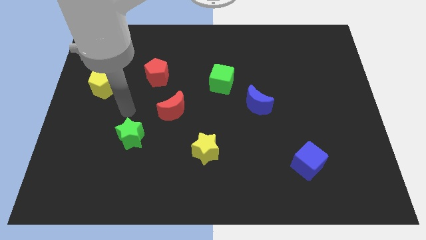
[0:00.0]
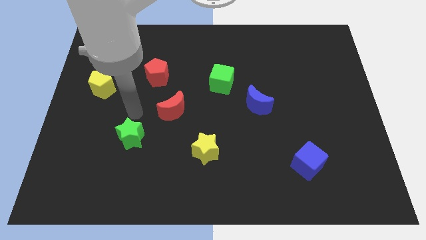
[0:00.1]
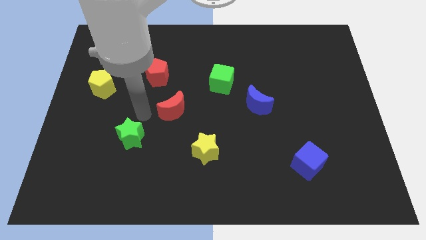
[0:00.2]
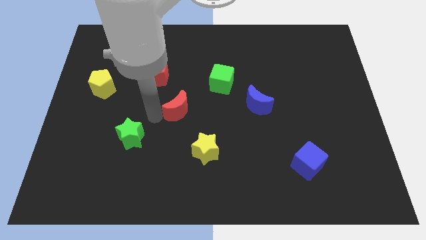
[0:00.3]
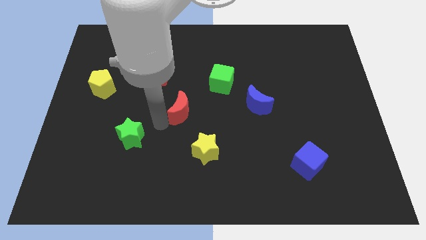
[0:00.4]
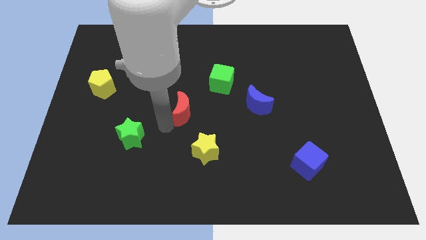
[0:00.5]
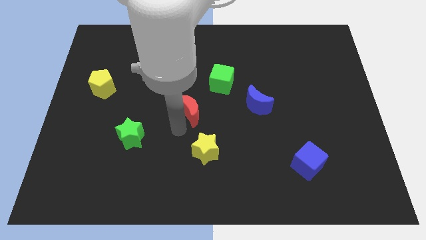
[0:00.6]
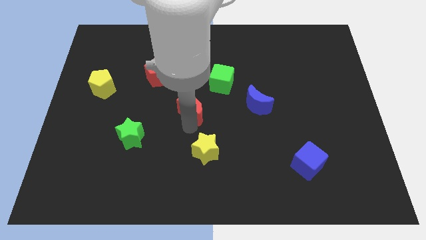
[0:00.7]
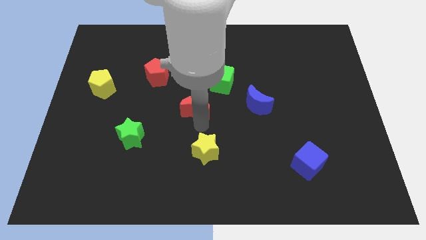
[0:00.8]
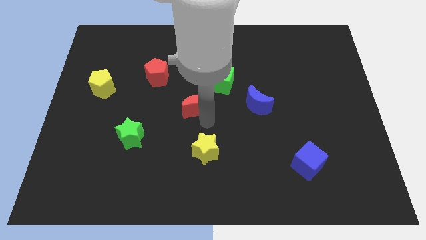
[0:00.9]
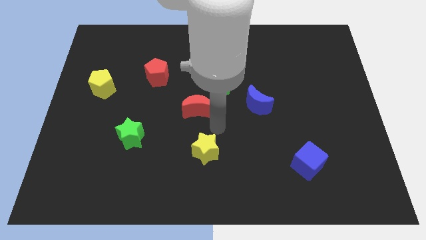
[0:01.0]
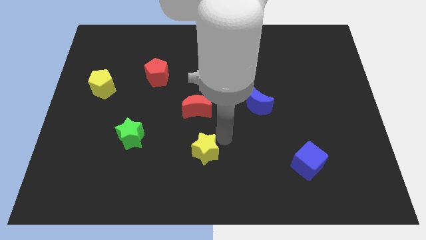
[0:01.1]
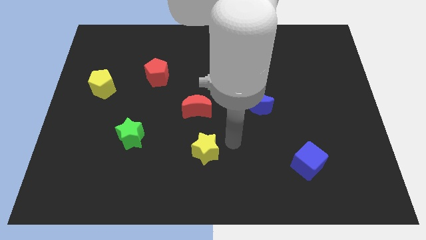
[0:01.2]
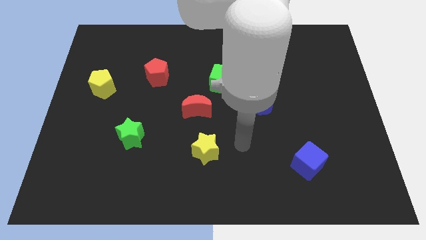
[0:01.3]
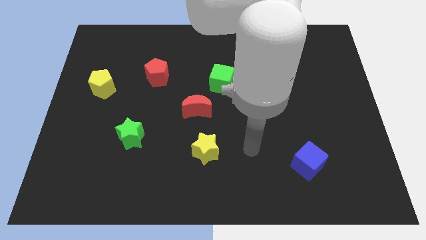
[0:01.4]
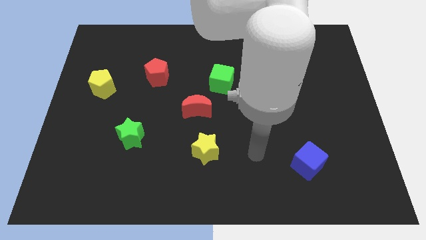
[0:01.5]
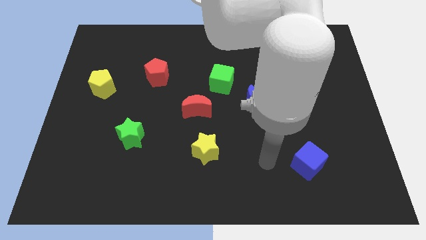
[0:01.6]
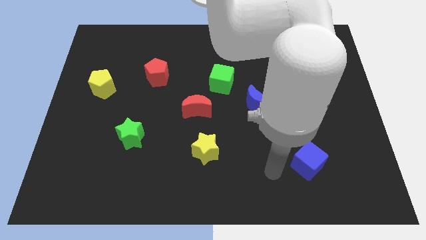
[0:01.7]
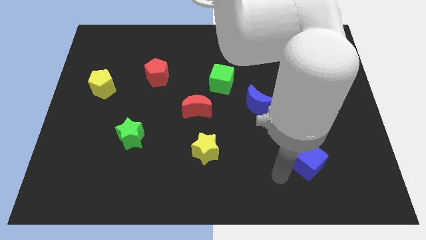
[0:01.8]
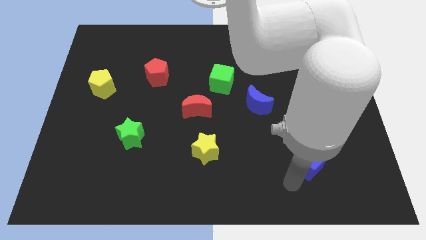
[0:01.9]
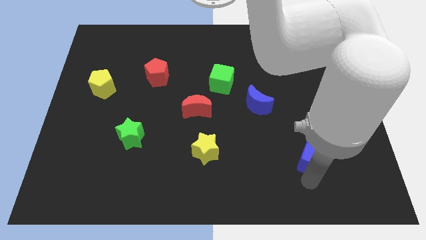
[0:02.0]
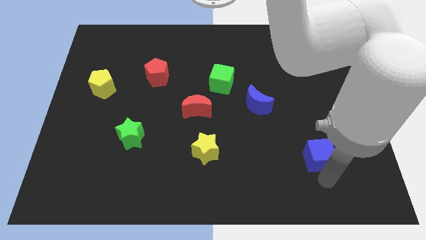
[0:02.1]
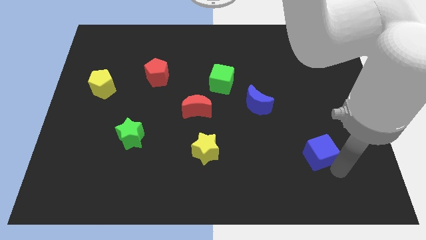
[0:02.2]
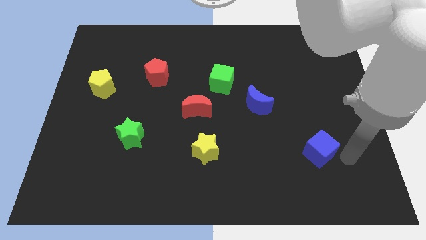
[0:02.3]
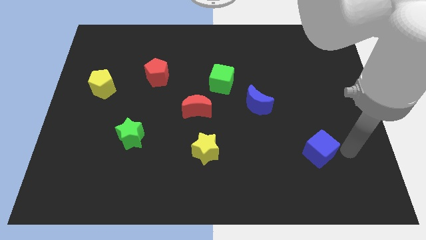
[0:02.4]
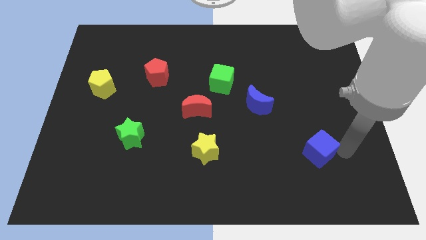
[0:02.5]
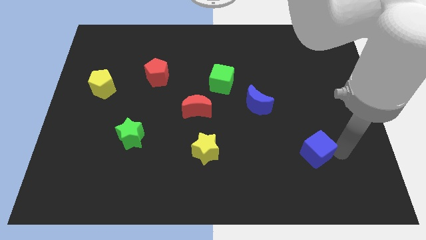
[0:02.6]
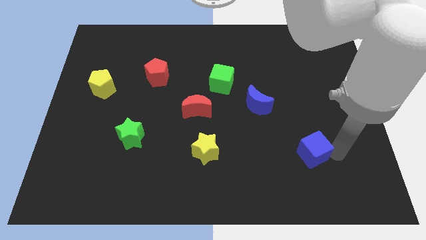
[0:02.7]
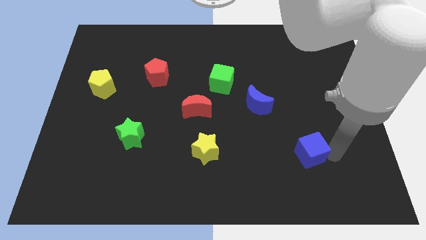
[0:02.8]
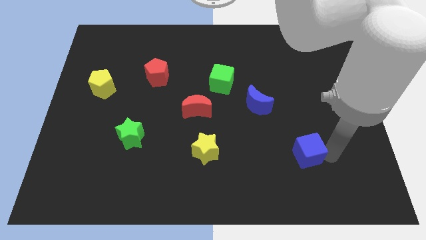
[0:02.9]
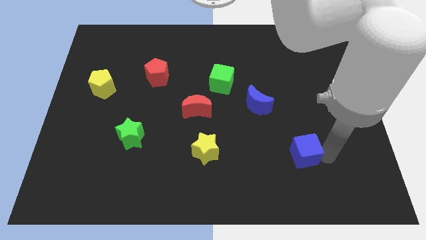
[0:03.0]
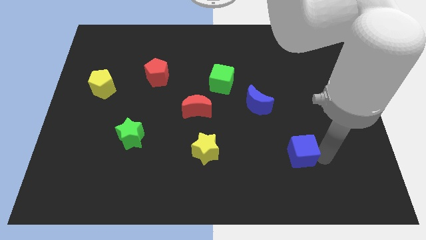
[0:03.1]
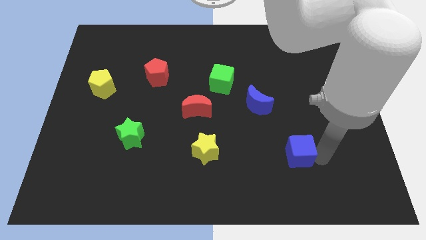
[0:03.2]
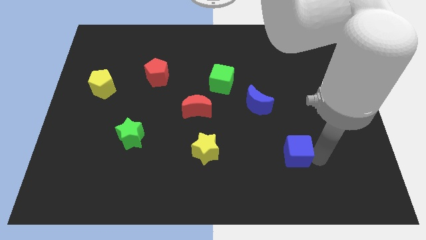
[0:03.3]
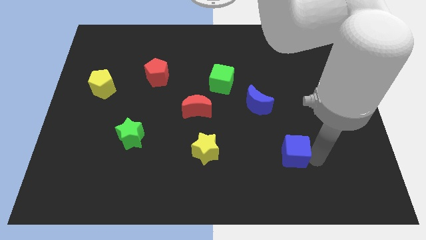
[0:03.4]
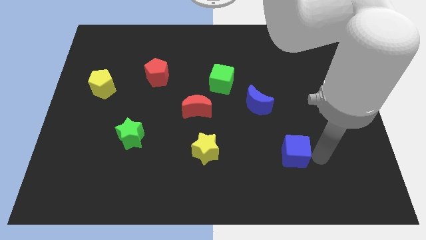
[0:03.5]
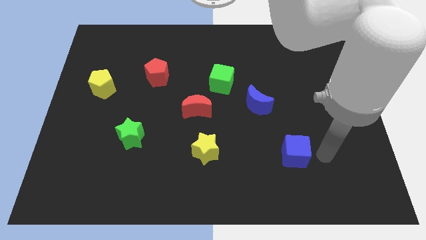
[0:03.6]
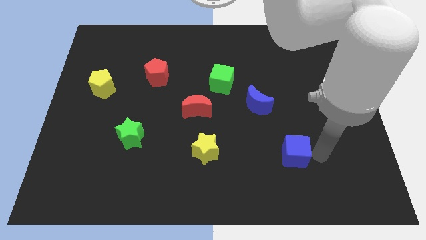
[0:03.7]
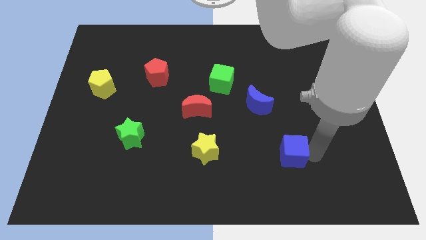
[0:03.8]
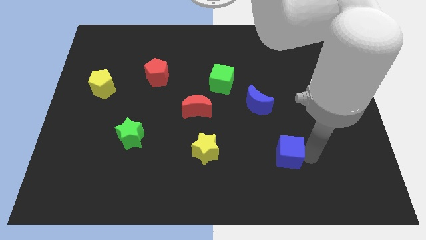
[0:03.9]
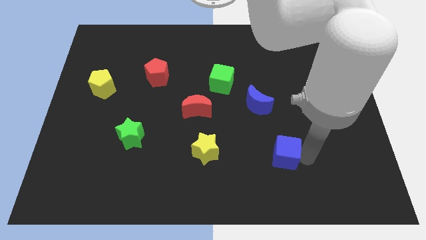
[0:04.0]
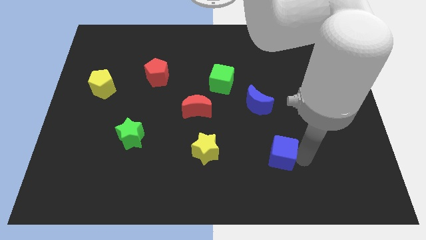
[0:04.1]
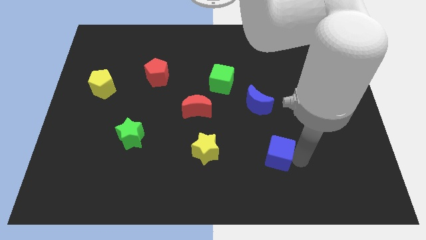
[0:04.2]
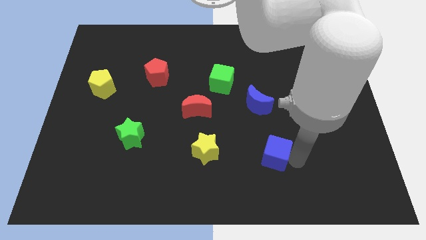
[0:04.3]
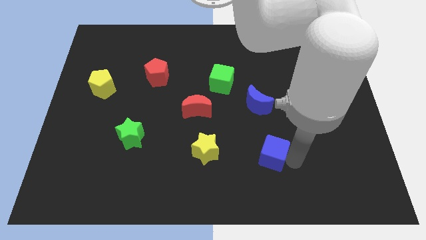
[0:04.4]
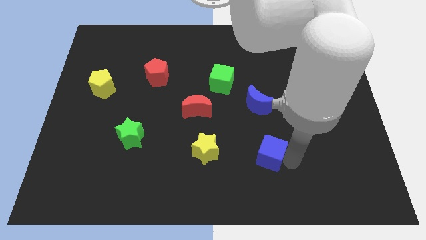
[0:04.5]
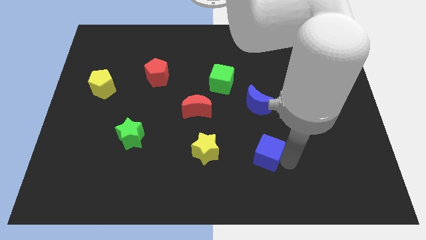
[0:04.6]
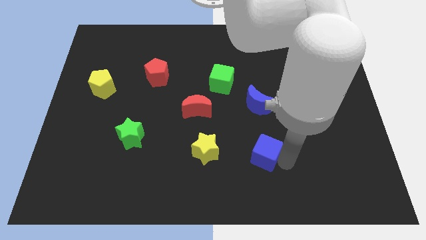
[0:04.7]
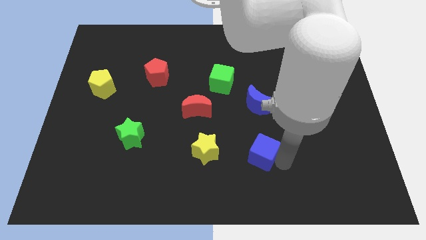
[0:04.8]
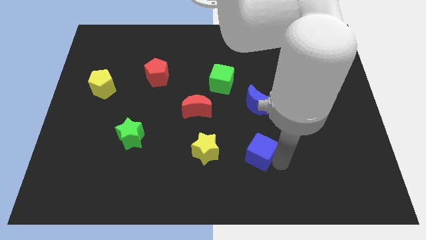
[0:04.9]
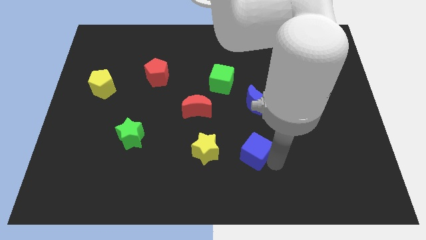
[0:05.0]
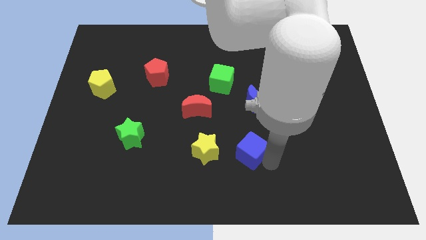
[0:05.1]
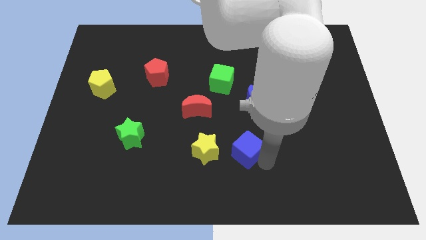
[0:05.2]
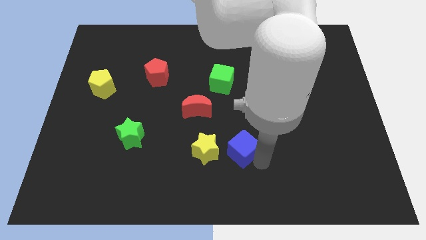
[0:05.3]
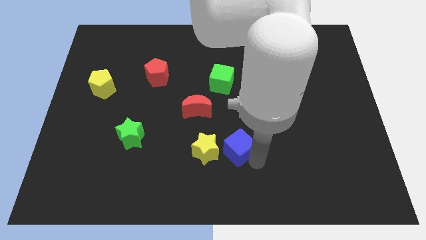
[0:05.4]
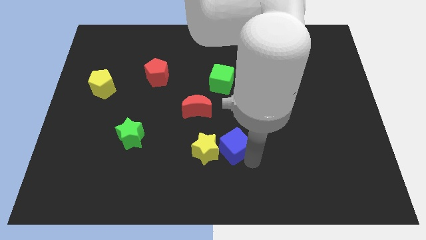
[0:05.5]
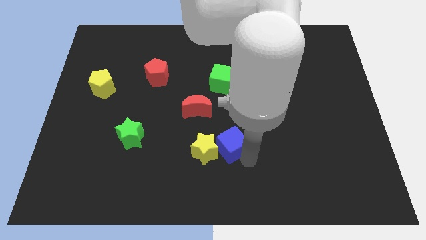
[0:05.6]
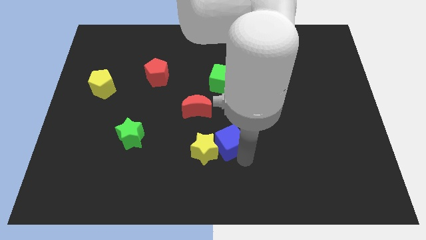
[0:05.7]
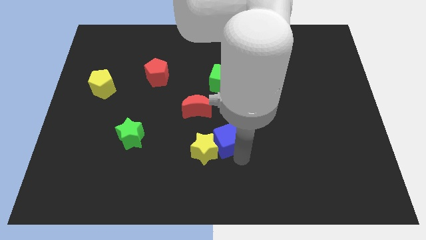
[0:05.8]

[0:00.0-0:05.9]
move the blue cube to the middle

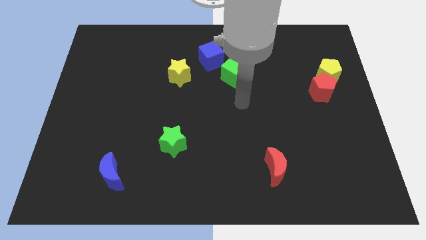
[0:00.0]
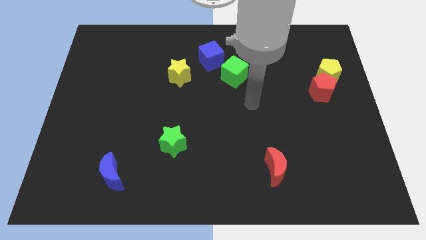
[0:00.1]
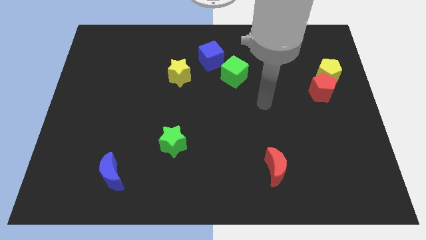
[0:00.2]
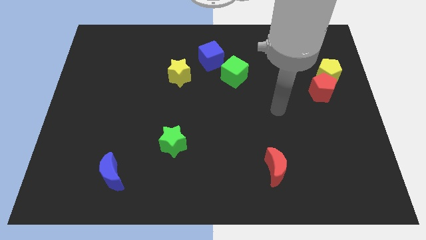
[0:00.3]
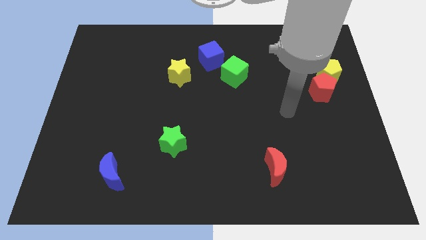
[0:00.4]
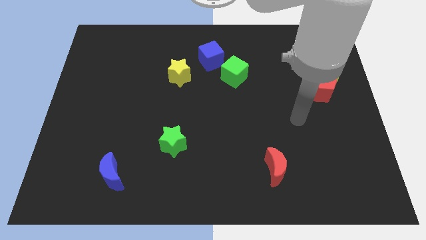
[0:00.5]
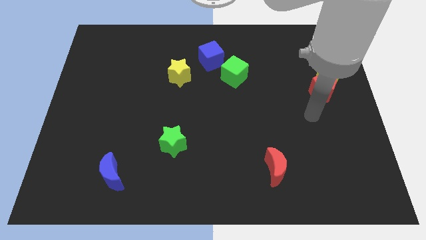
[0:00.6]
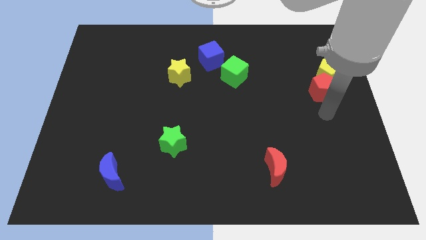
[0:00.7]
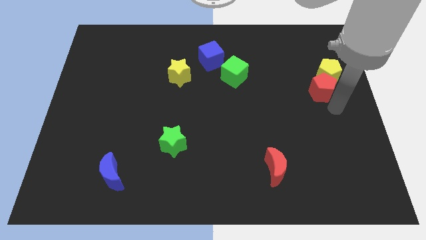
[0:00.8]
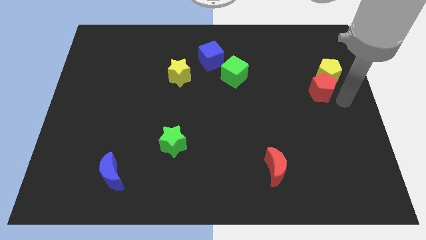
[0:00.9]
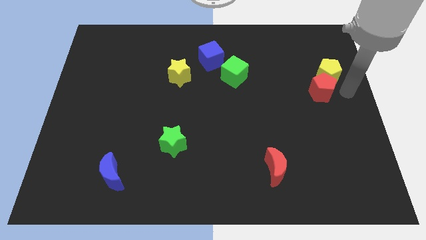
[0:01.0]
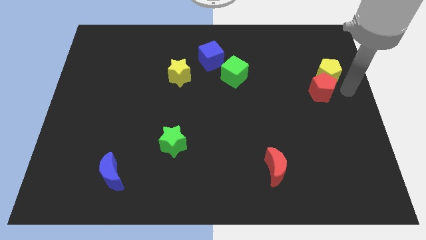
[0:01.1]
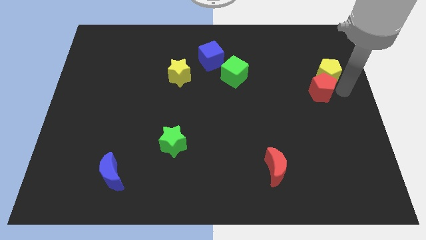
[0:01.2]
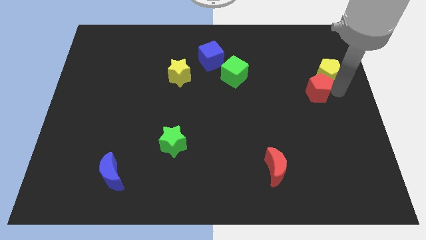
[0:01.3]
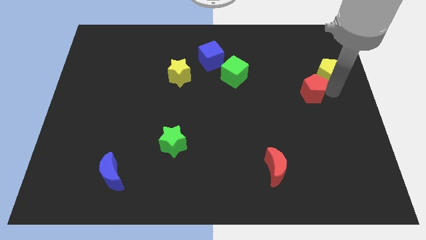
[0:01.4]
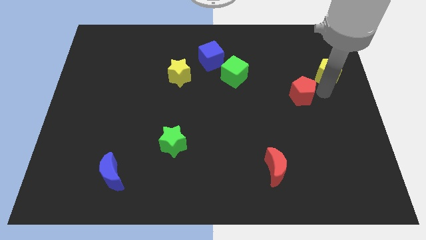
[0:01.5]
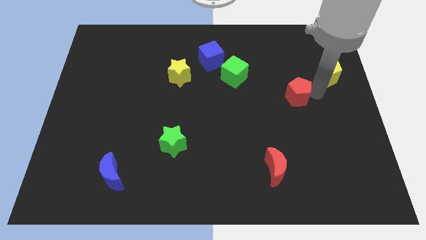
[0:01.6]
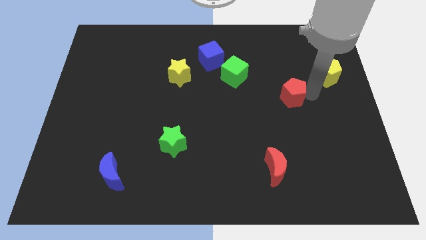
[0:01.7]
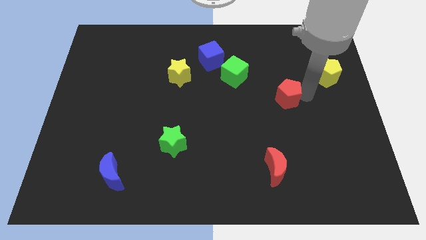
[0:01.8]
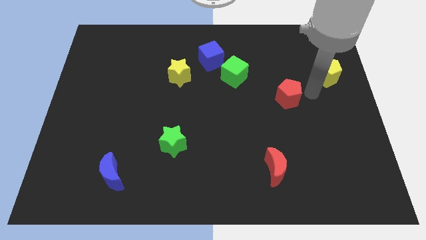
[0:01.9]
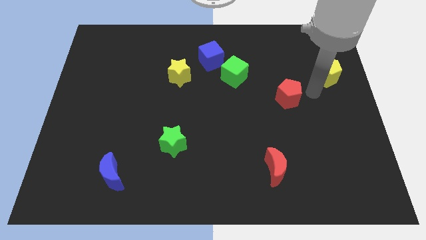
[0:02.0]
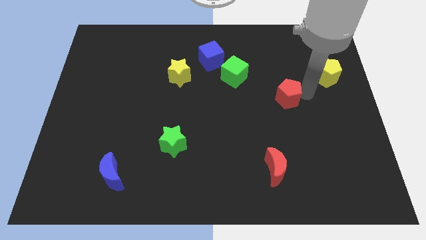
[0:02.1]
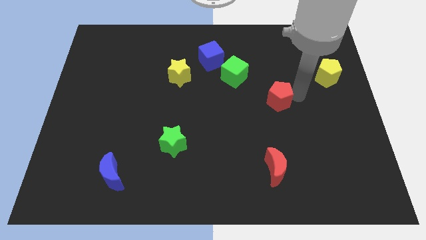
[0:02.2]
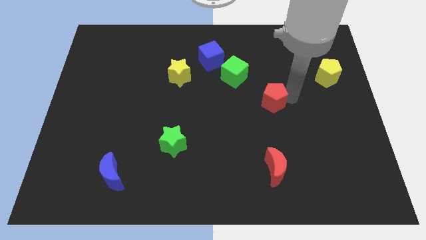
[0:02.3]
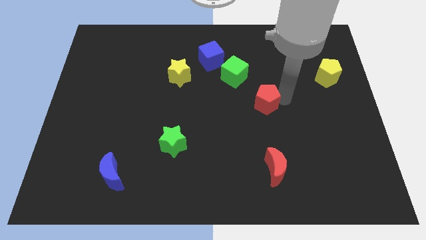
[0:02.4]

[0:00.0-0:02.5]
push the red pentagon to the center of the board
